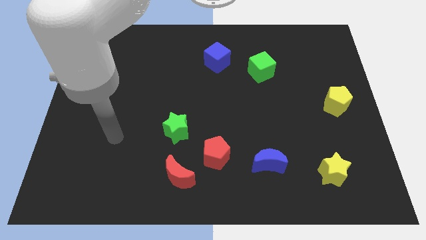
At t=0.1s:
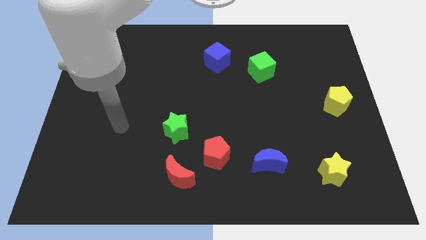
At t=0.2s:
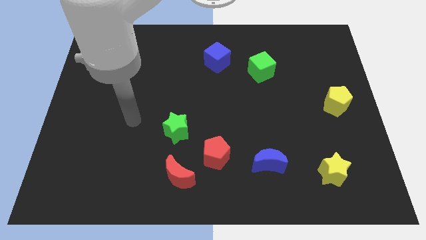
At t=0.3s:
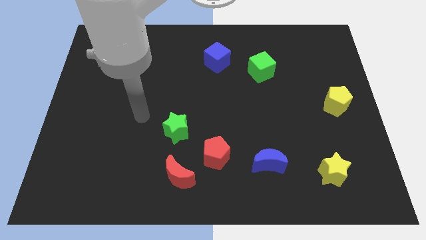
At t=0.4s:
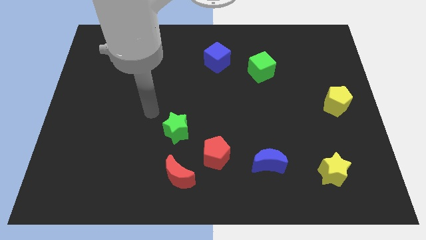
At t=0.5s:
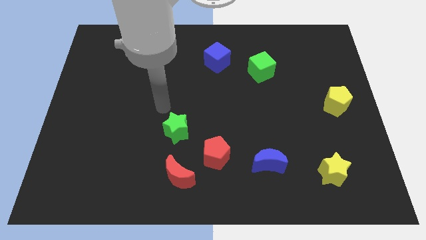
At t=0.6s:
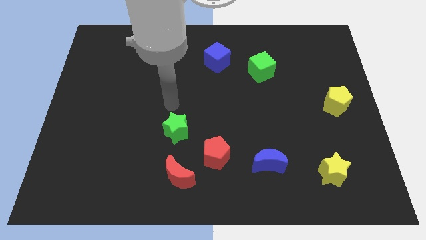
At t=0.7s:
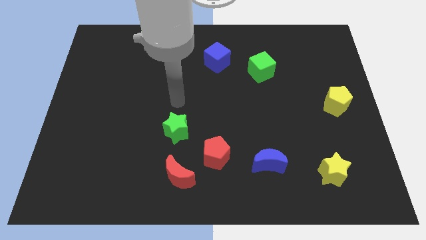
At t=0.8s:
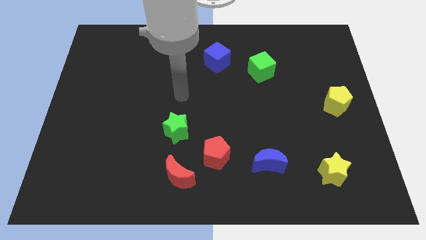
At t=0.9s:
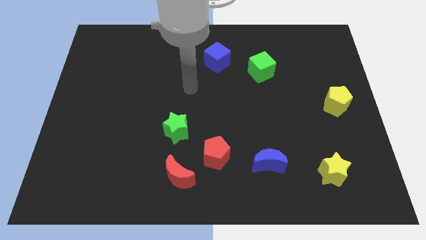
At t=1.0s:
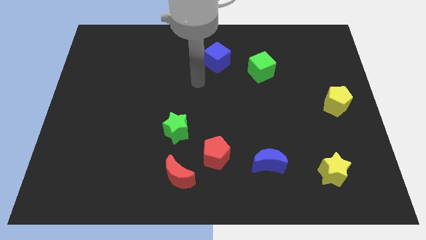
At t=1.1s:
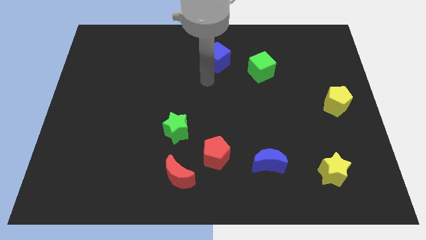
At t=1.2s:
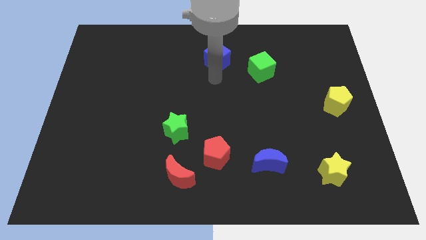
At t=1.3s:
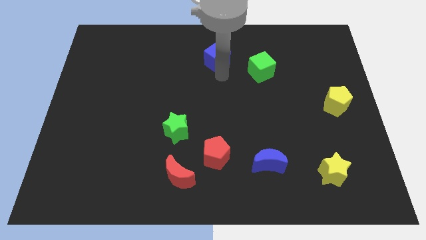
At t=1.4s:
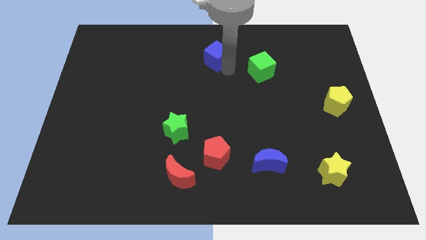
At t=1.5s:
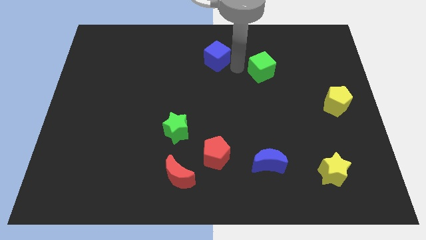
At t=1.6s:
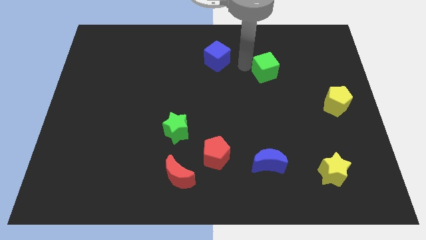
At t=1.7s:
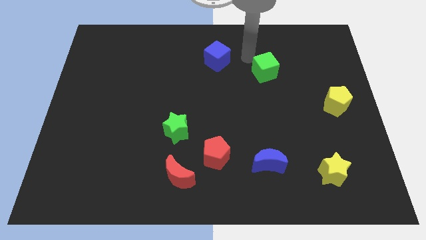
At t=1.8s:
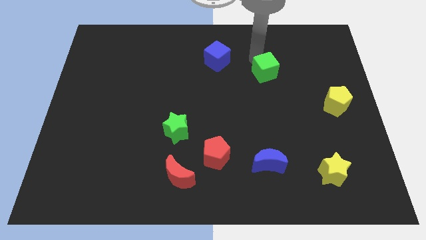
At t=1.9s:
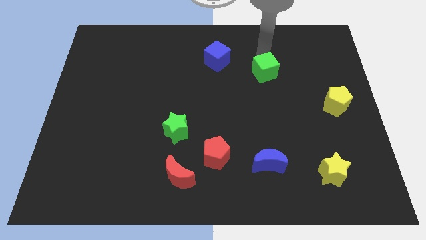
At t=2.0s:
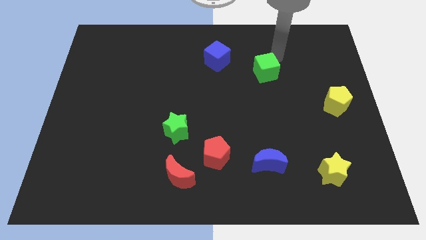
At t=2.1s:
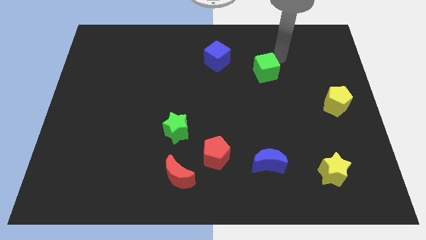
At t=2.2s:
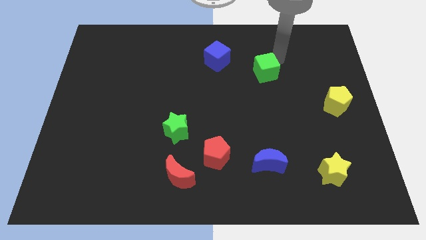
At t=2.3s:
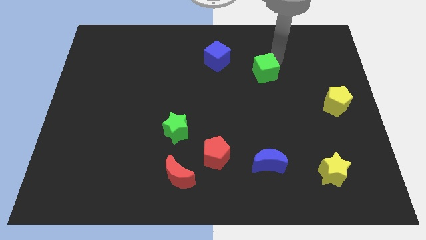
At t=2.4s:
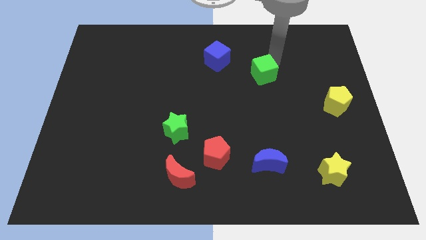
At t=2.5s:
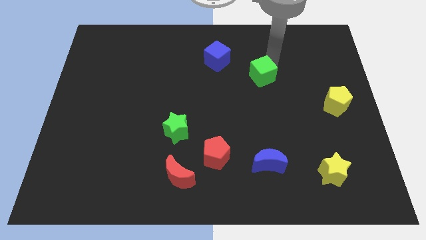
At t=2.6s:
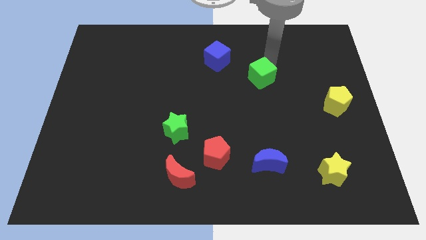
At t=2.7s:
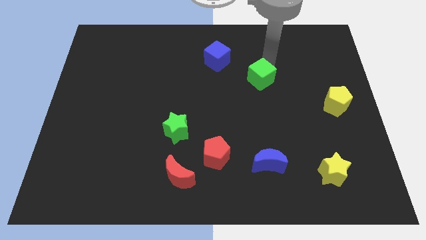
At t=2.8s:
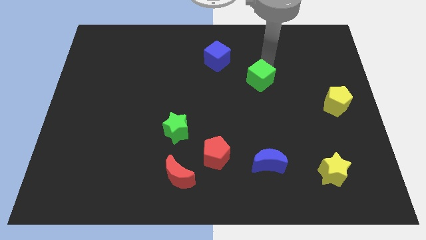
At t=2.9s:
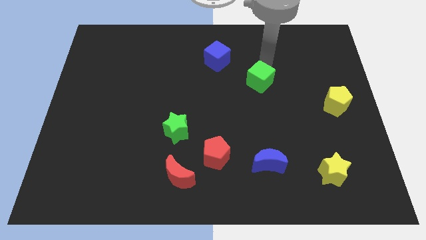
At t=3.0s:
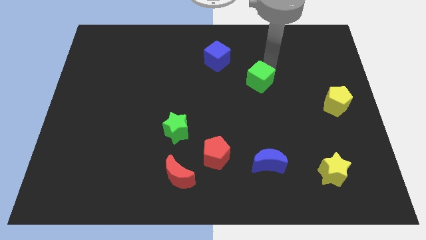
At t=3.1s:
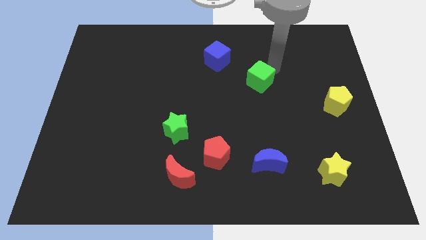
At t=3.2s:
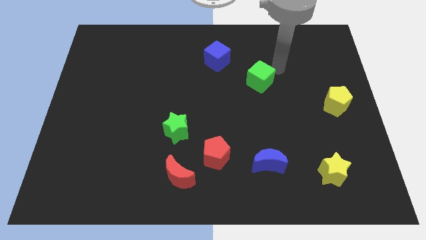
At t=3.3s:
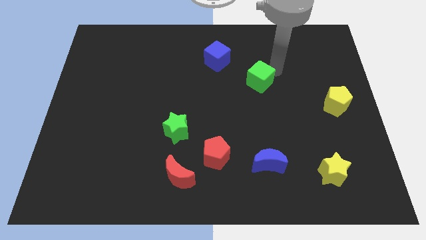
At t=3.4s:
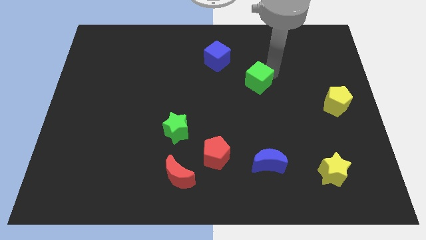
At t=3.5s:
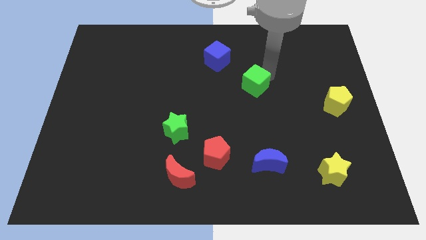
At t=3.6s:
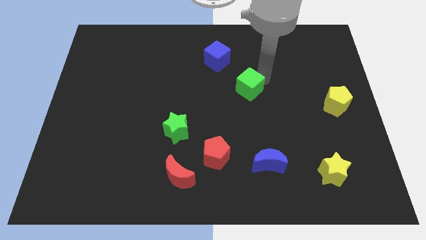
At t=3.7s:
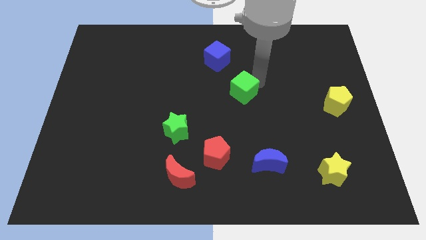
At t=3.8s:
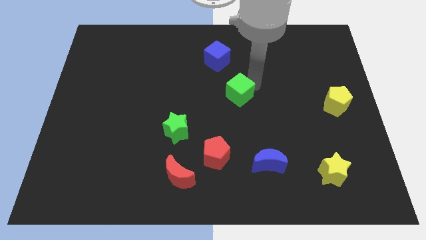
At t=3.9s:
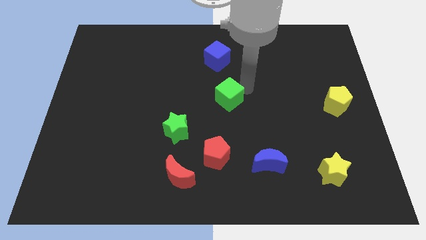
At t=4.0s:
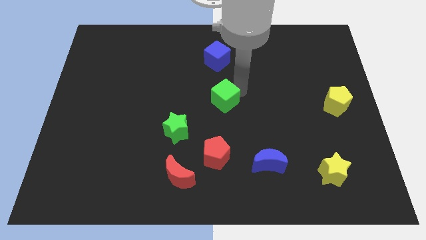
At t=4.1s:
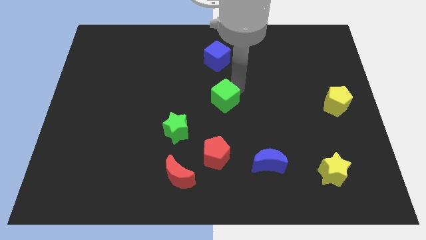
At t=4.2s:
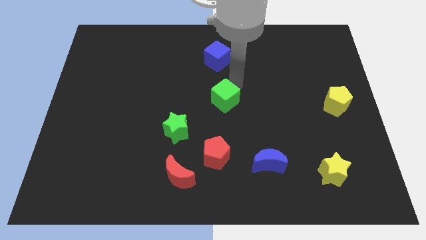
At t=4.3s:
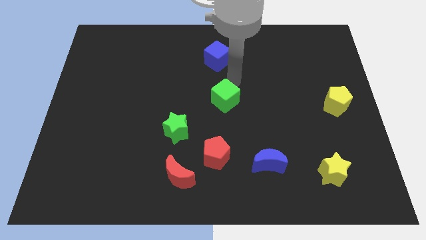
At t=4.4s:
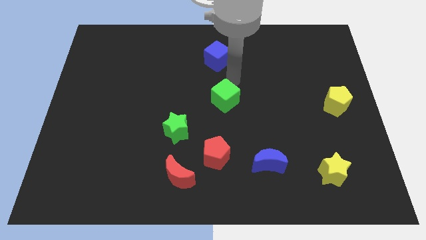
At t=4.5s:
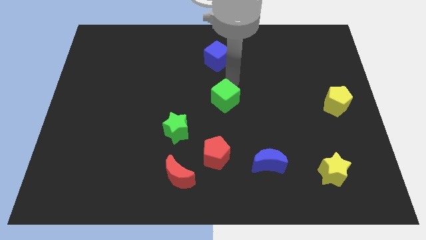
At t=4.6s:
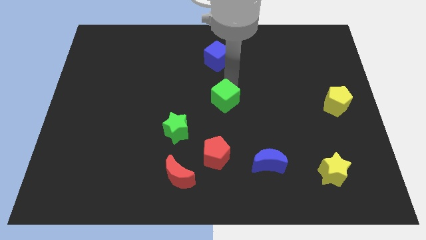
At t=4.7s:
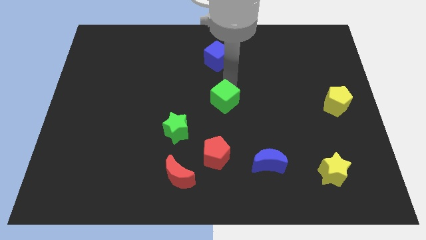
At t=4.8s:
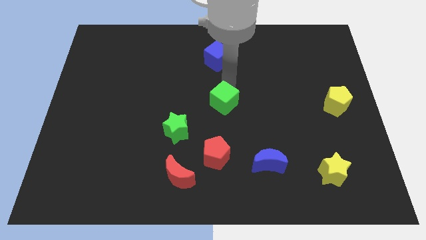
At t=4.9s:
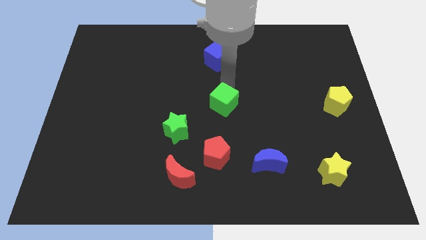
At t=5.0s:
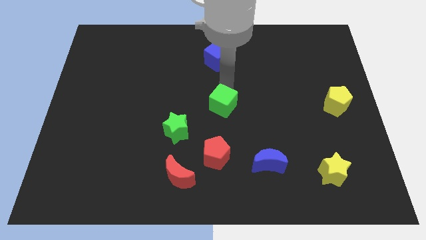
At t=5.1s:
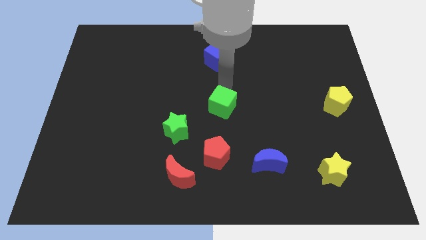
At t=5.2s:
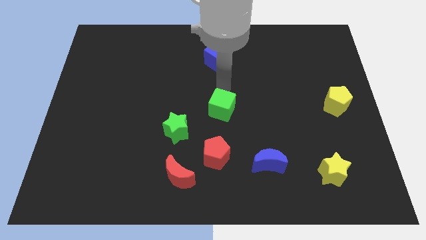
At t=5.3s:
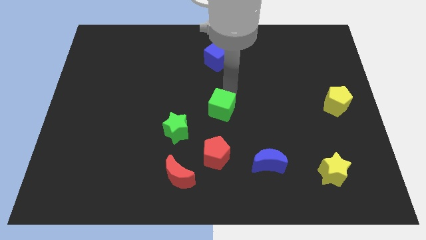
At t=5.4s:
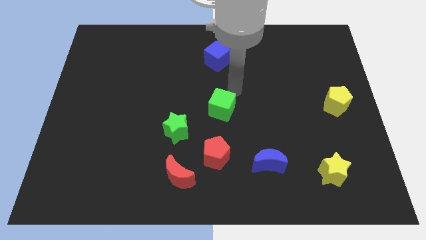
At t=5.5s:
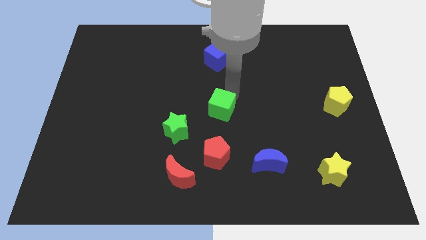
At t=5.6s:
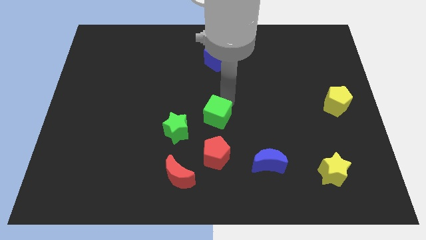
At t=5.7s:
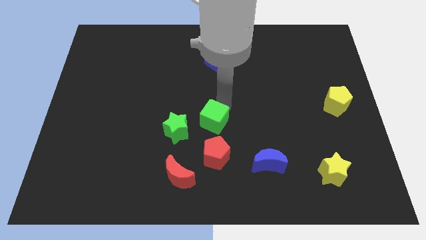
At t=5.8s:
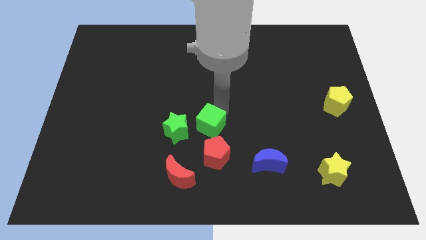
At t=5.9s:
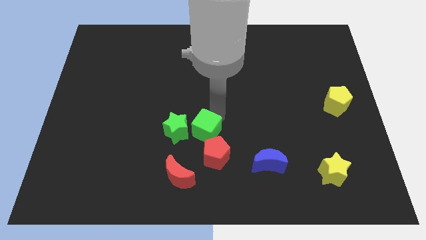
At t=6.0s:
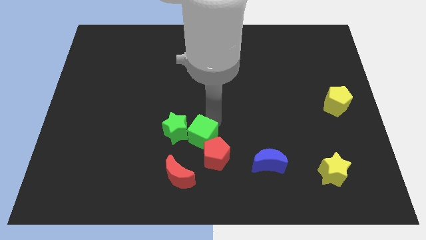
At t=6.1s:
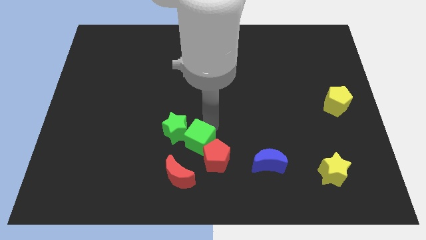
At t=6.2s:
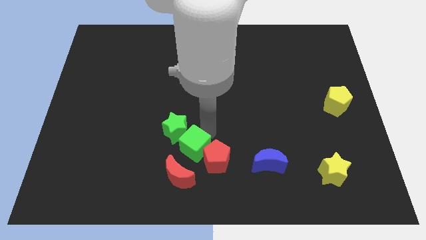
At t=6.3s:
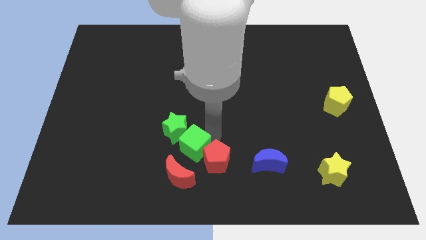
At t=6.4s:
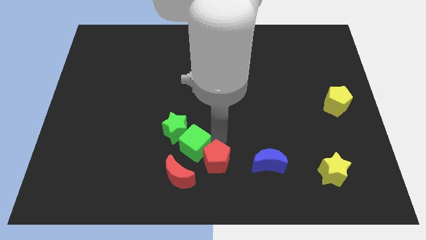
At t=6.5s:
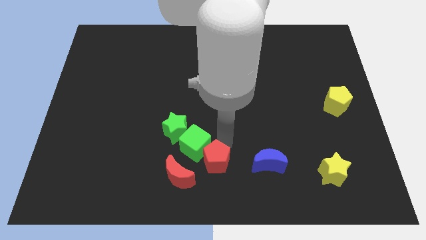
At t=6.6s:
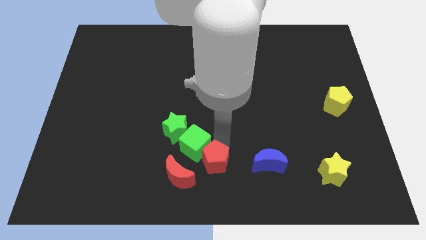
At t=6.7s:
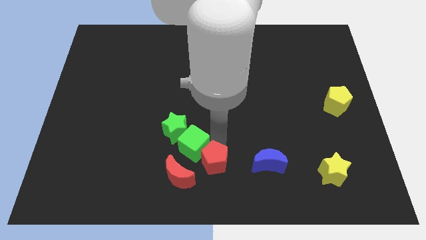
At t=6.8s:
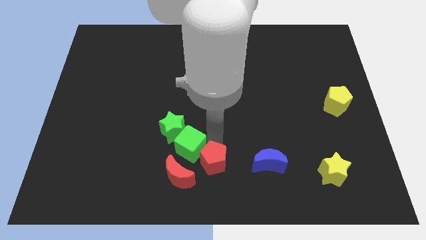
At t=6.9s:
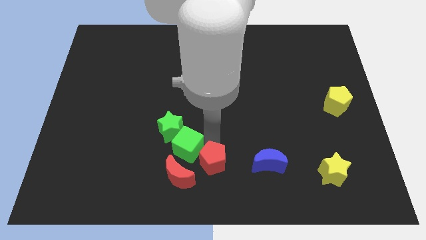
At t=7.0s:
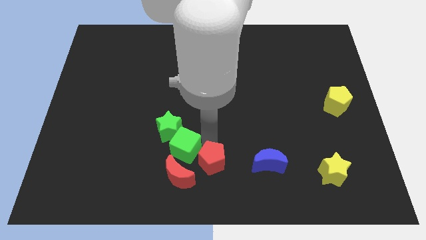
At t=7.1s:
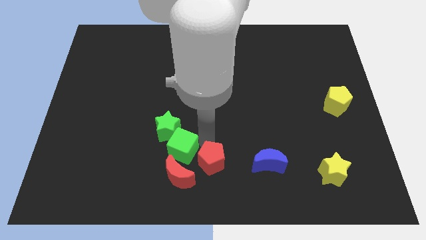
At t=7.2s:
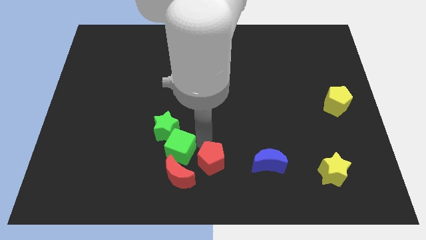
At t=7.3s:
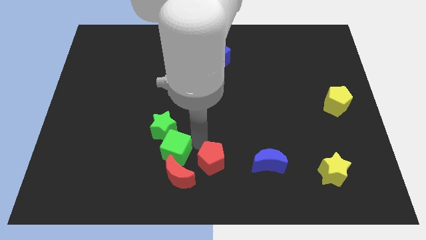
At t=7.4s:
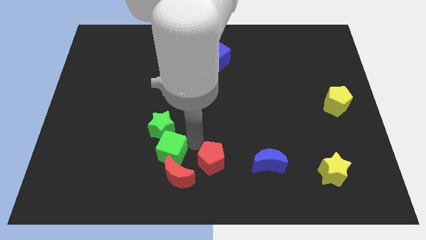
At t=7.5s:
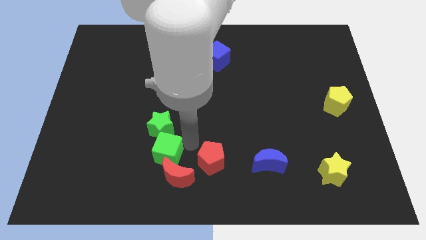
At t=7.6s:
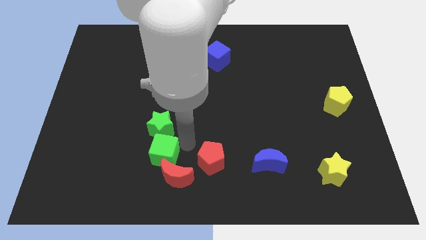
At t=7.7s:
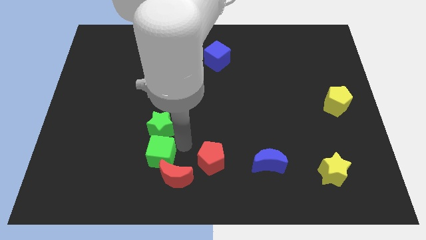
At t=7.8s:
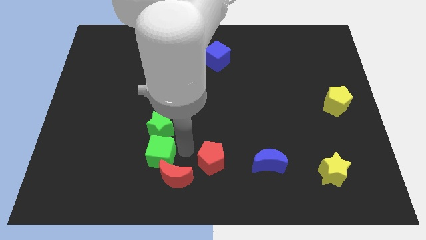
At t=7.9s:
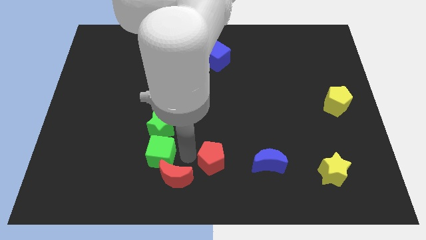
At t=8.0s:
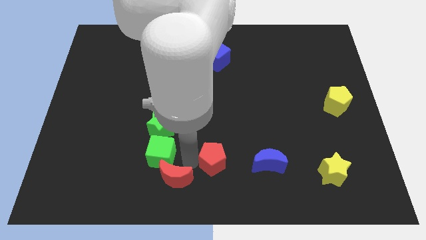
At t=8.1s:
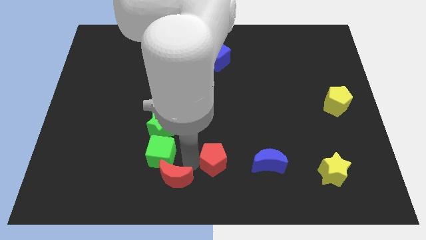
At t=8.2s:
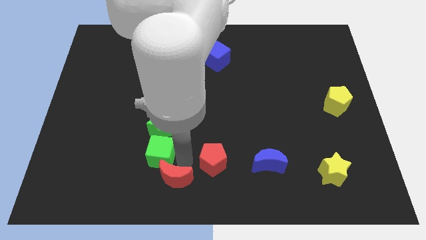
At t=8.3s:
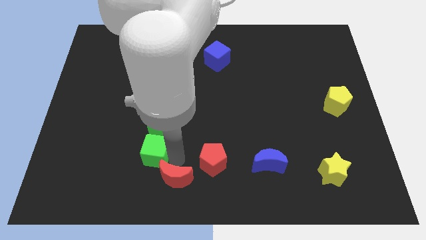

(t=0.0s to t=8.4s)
slide the green cube to the bottom left side of the green star
